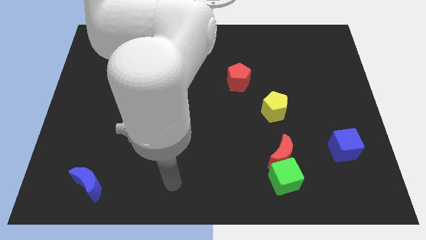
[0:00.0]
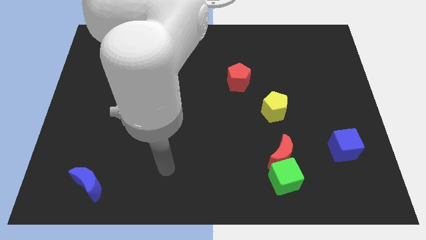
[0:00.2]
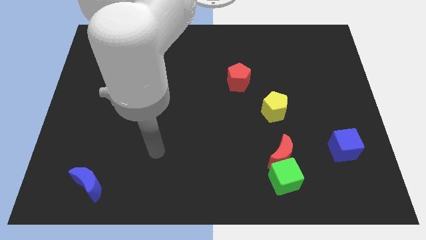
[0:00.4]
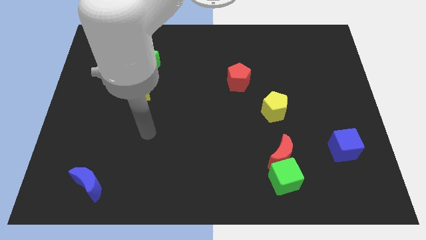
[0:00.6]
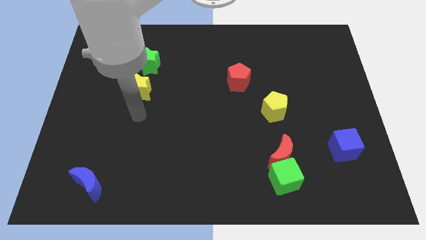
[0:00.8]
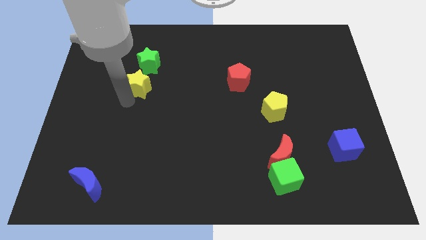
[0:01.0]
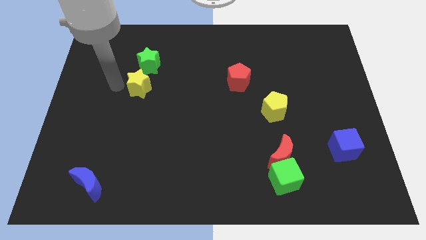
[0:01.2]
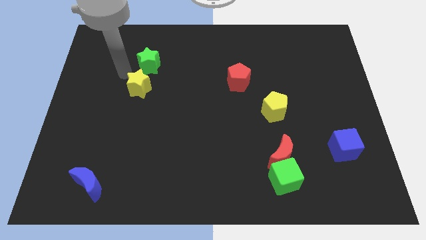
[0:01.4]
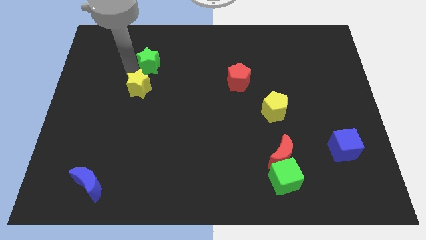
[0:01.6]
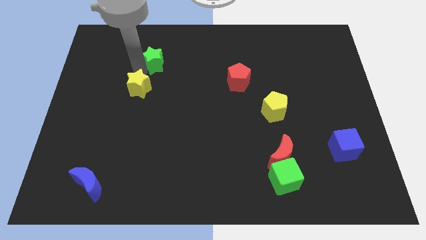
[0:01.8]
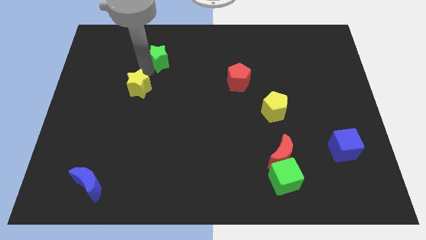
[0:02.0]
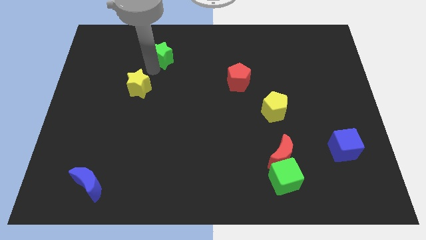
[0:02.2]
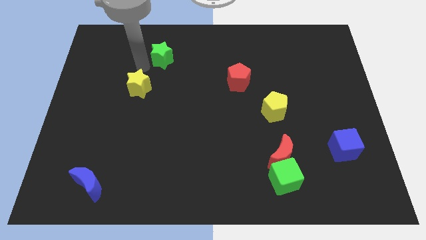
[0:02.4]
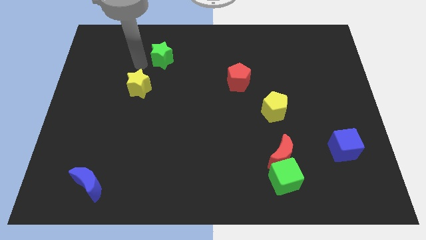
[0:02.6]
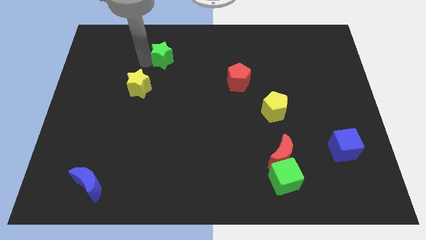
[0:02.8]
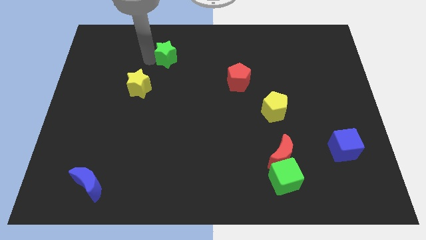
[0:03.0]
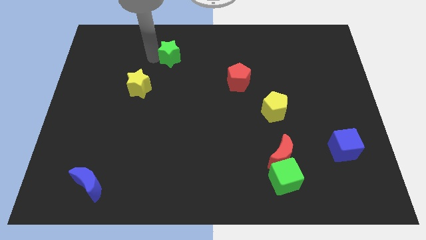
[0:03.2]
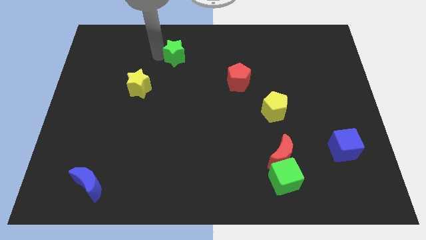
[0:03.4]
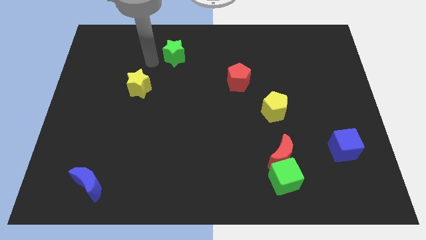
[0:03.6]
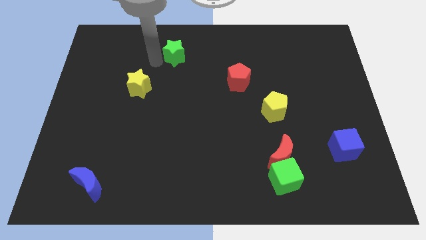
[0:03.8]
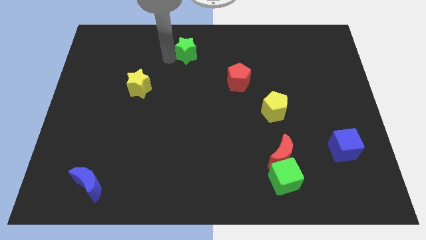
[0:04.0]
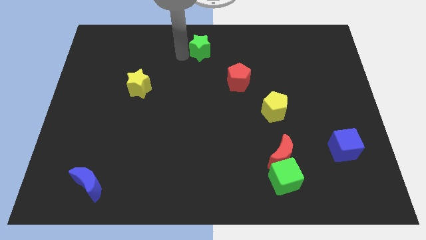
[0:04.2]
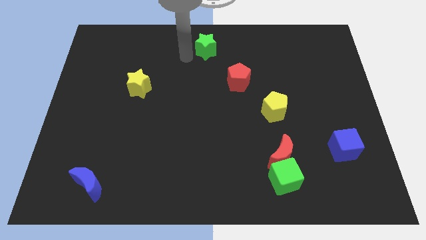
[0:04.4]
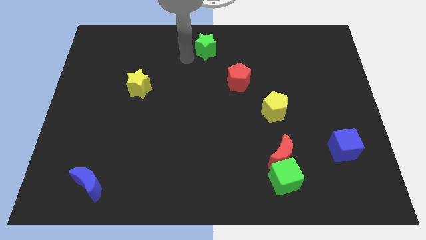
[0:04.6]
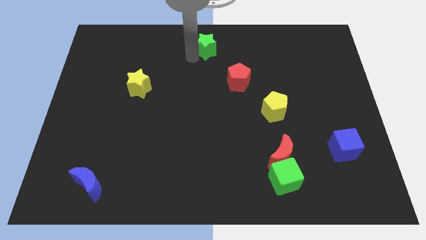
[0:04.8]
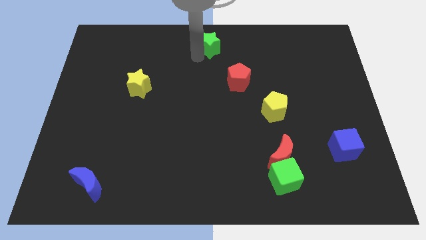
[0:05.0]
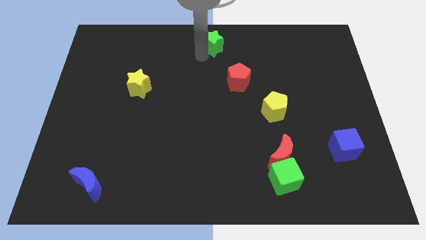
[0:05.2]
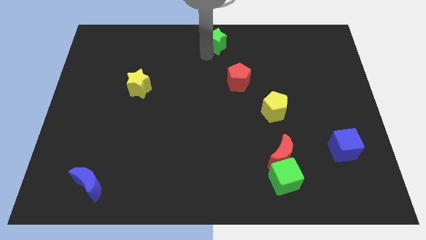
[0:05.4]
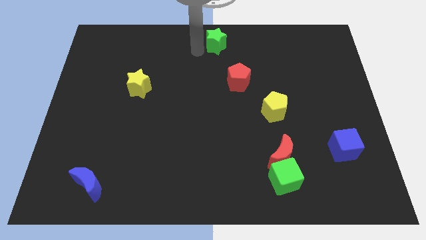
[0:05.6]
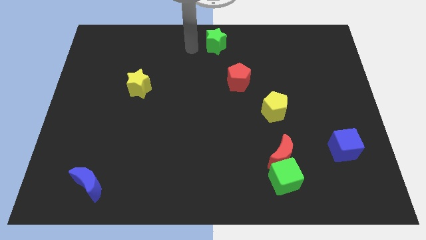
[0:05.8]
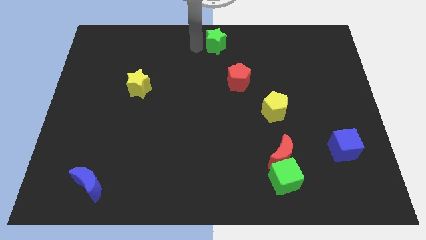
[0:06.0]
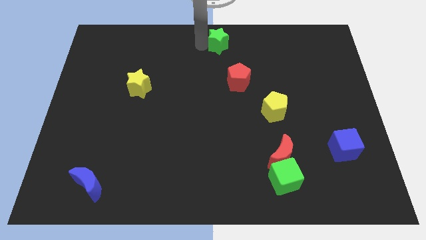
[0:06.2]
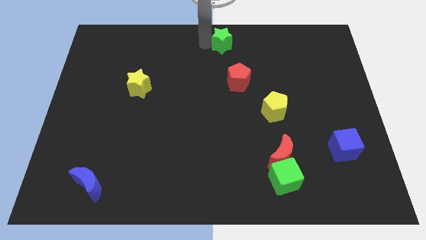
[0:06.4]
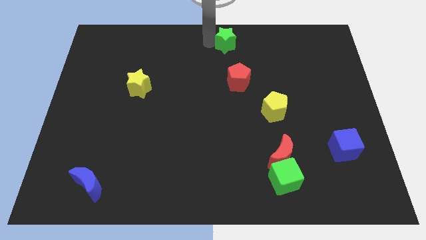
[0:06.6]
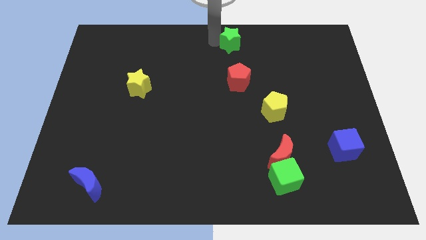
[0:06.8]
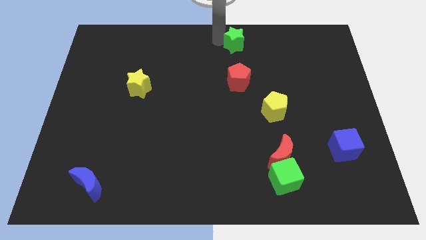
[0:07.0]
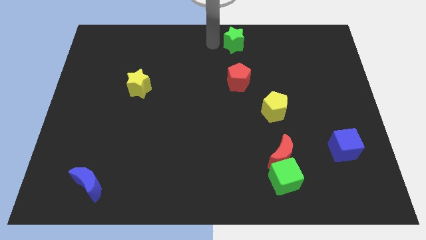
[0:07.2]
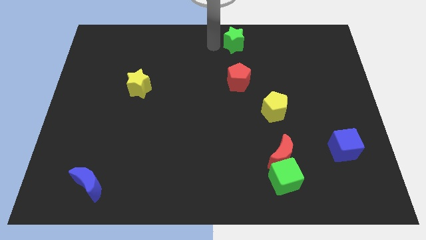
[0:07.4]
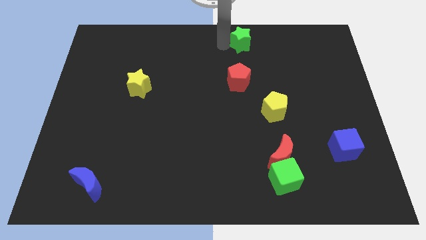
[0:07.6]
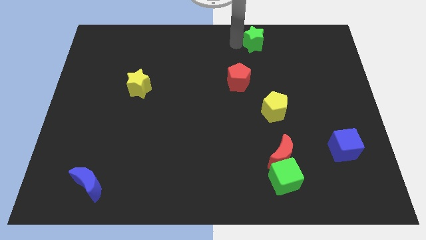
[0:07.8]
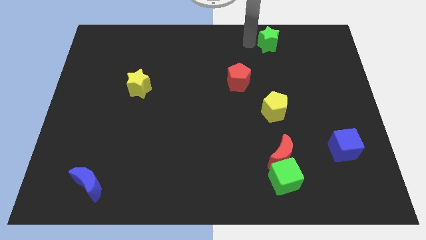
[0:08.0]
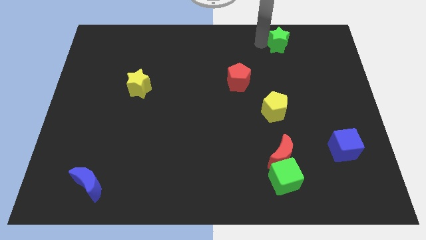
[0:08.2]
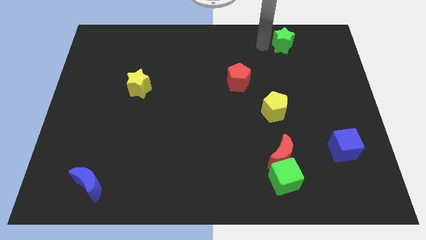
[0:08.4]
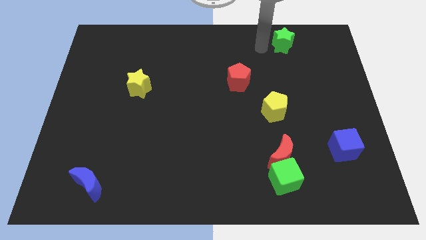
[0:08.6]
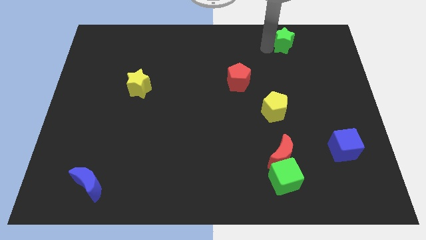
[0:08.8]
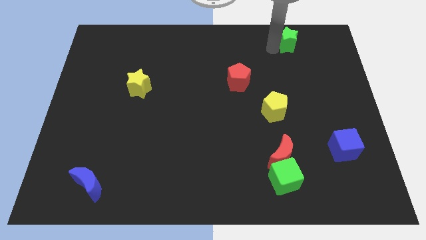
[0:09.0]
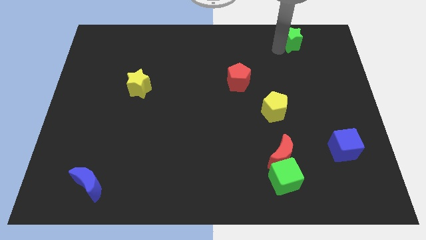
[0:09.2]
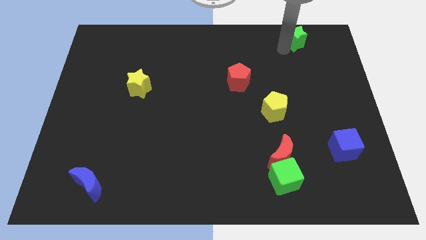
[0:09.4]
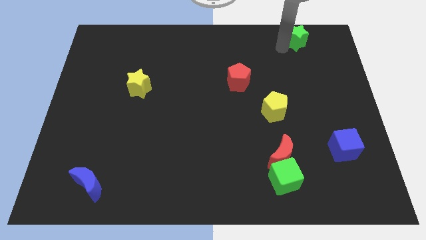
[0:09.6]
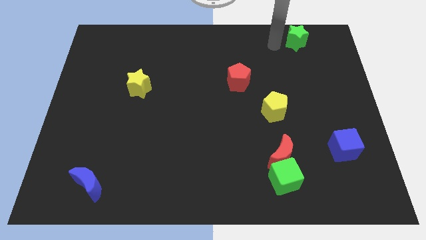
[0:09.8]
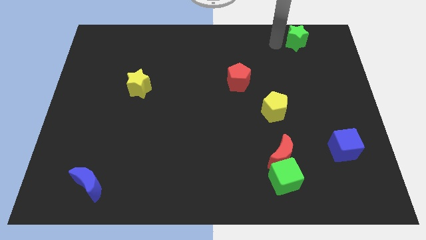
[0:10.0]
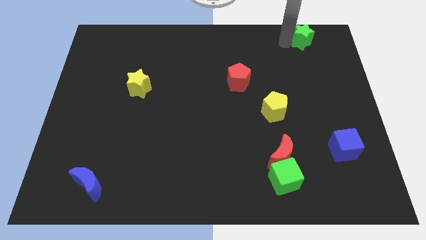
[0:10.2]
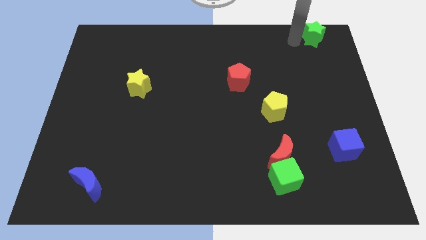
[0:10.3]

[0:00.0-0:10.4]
push the green star to the top right of the board
